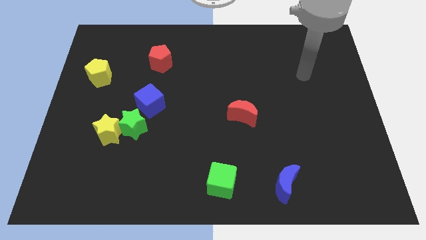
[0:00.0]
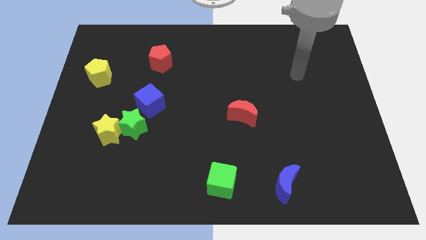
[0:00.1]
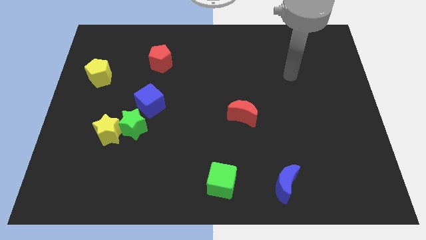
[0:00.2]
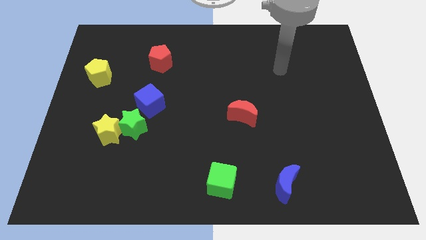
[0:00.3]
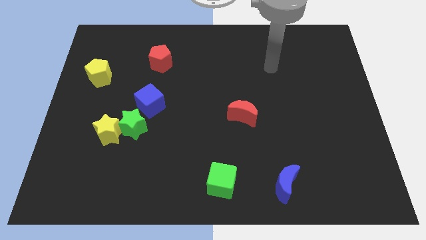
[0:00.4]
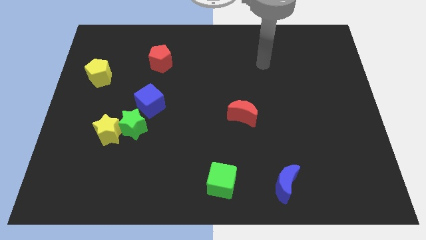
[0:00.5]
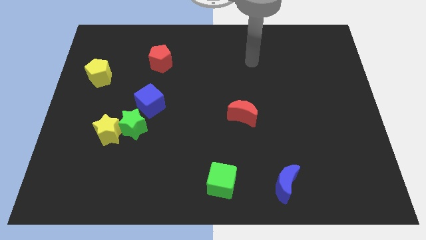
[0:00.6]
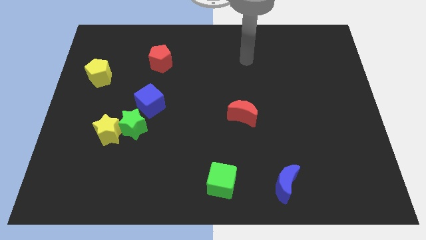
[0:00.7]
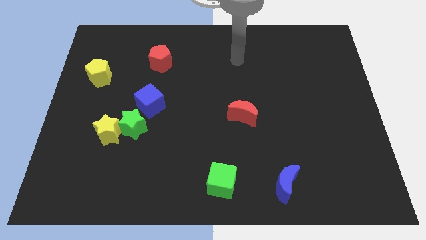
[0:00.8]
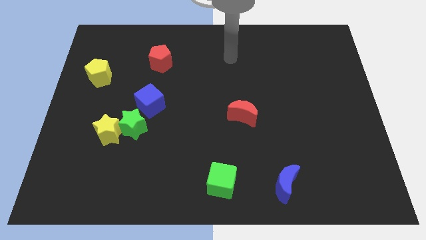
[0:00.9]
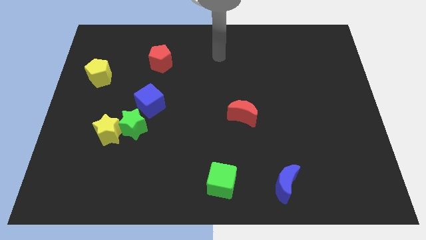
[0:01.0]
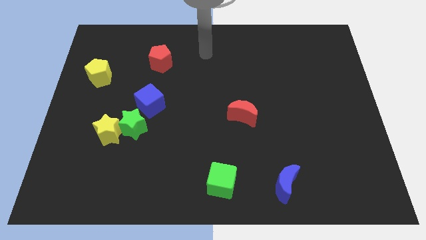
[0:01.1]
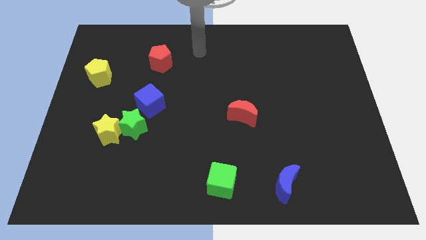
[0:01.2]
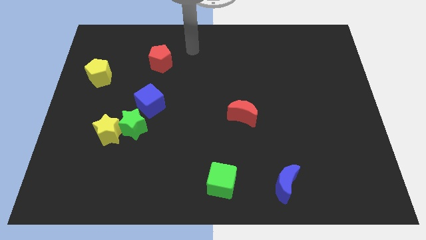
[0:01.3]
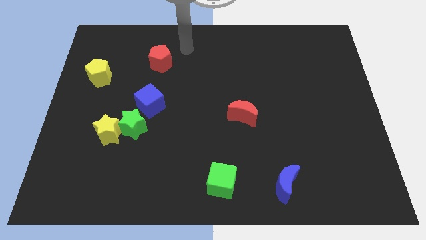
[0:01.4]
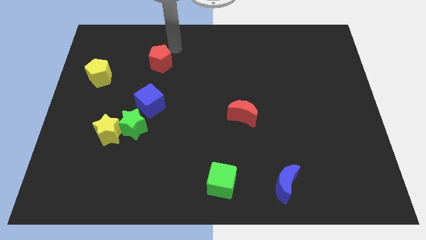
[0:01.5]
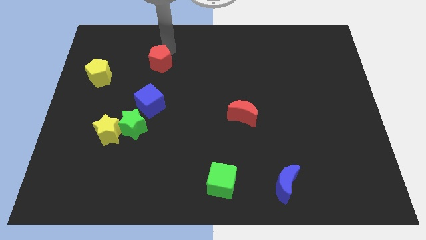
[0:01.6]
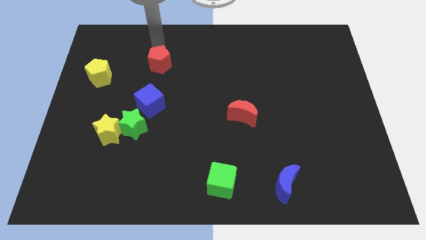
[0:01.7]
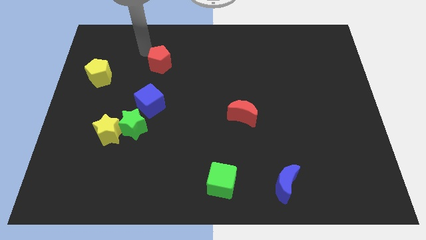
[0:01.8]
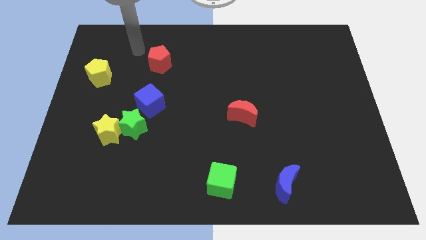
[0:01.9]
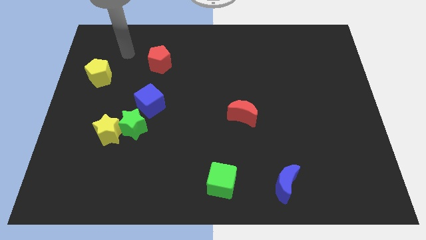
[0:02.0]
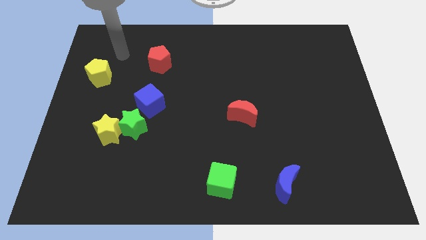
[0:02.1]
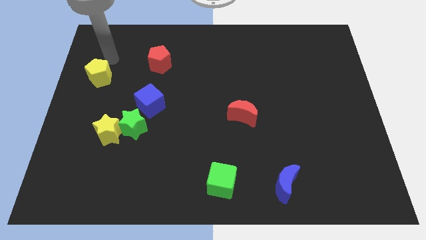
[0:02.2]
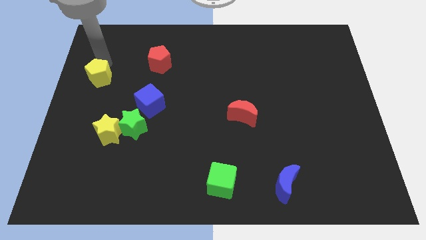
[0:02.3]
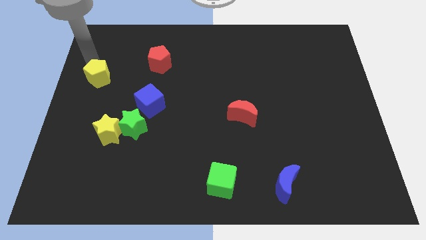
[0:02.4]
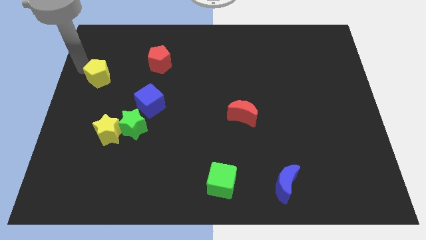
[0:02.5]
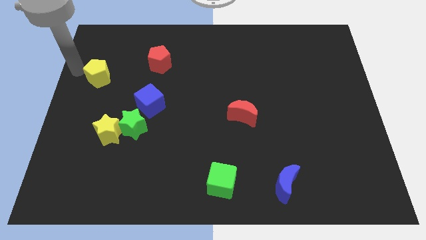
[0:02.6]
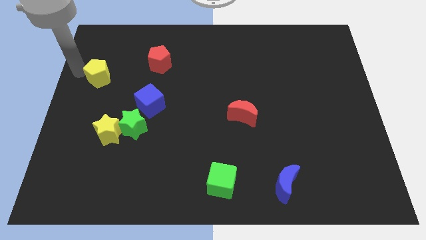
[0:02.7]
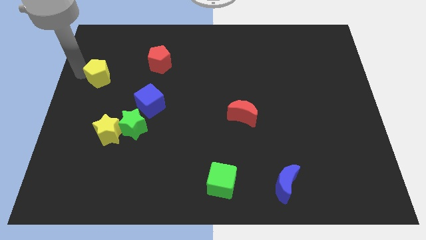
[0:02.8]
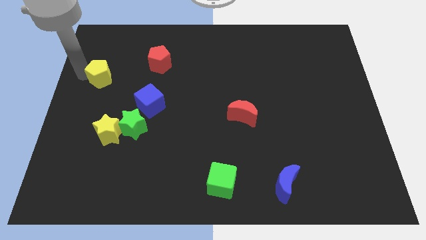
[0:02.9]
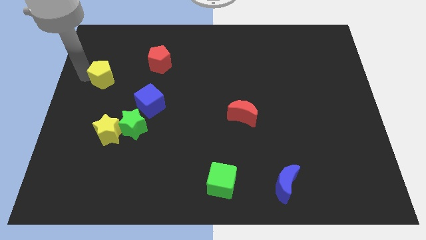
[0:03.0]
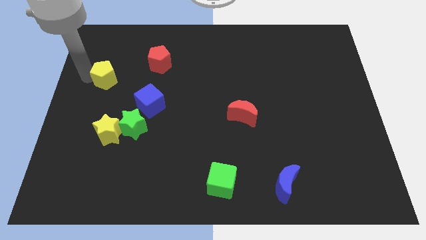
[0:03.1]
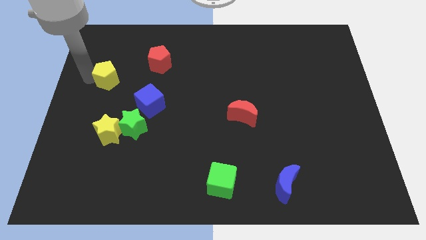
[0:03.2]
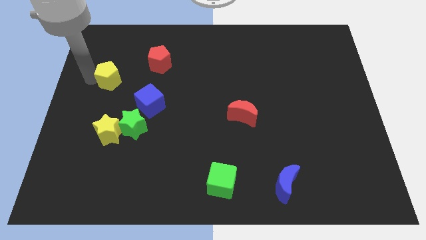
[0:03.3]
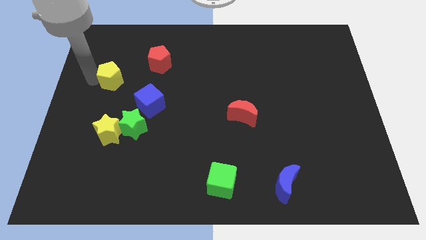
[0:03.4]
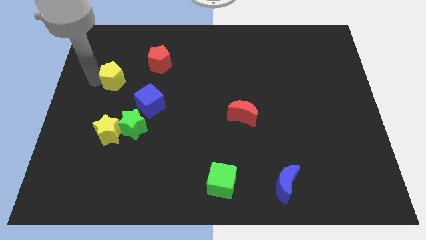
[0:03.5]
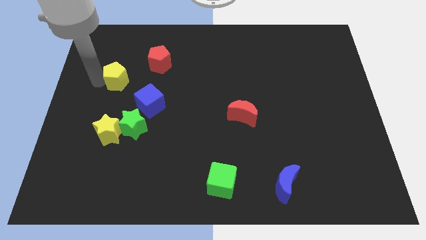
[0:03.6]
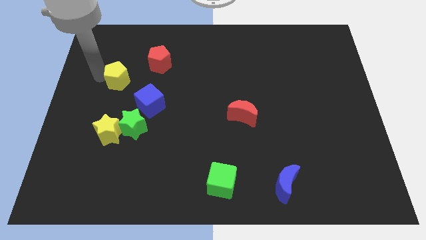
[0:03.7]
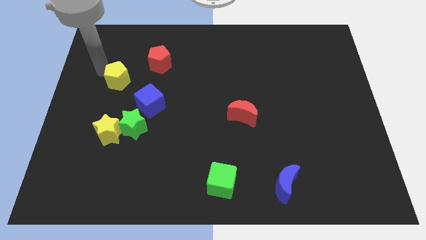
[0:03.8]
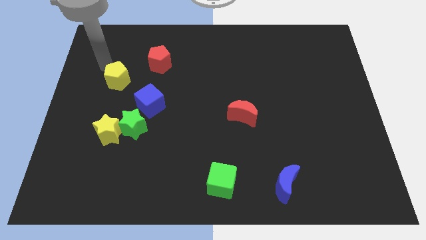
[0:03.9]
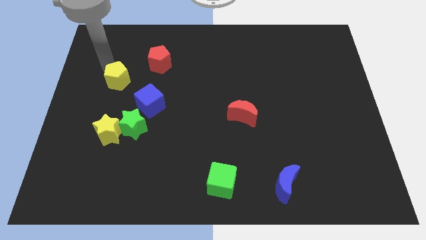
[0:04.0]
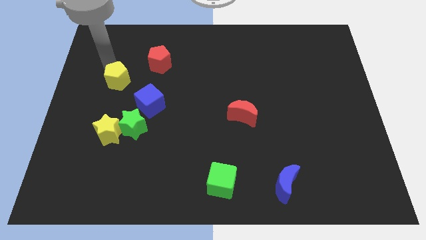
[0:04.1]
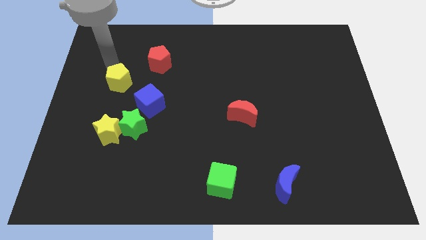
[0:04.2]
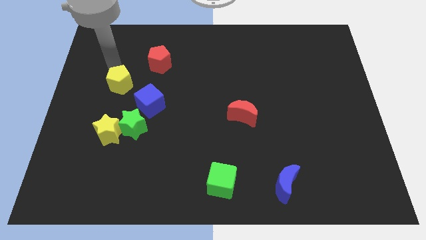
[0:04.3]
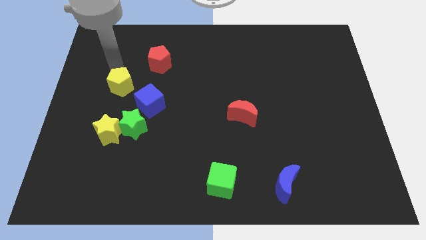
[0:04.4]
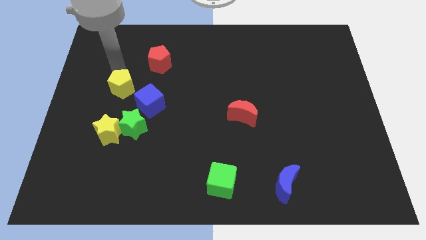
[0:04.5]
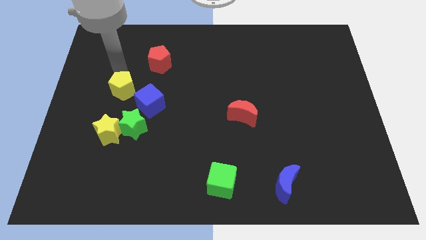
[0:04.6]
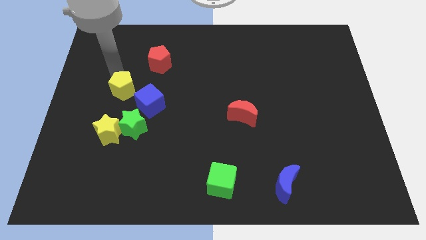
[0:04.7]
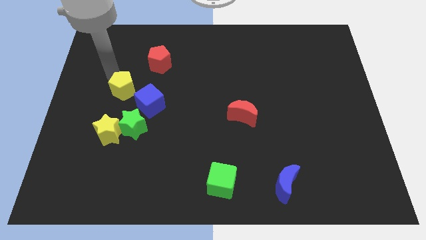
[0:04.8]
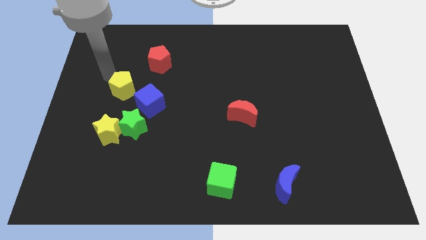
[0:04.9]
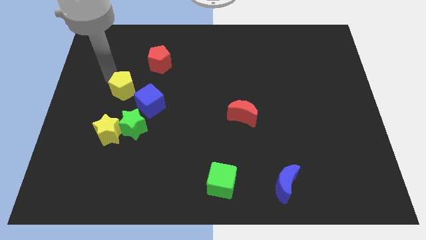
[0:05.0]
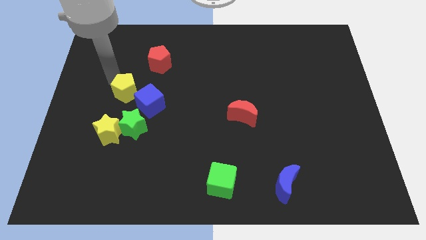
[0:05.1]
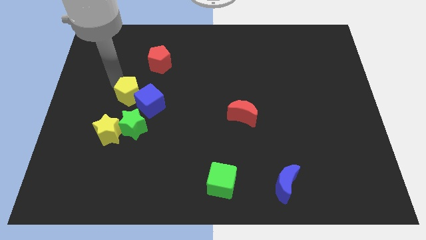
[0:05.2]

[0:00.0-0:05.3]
put the yellow pentagon towards the blue cube

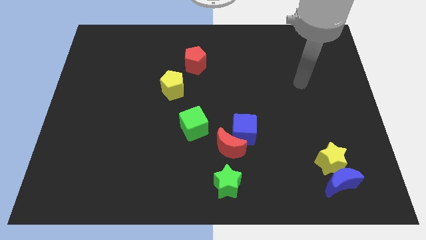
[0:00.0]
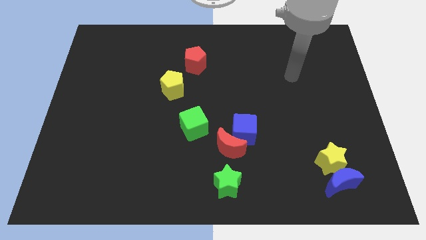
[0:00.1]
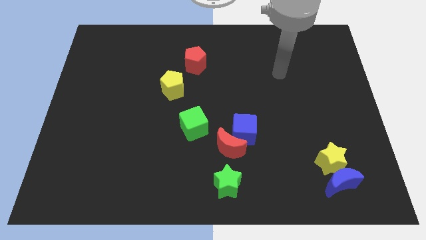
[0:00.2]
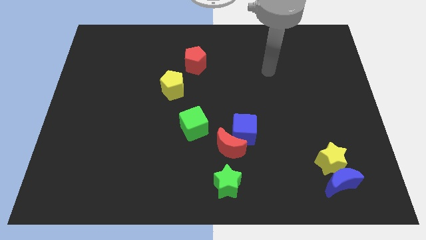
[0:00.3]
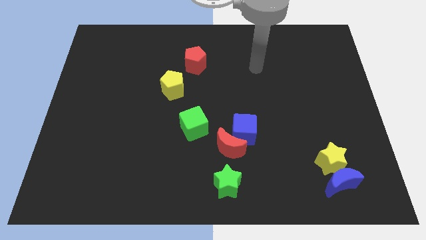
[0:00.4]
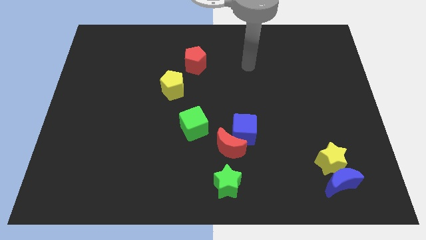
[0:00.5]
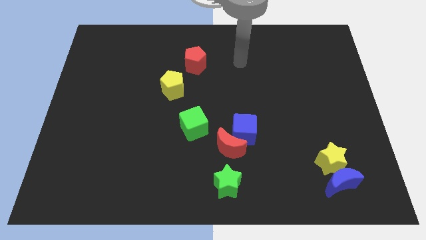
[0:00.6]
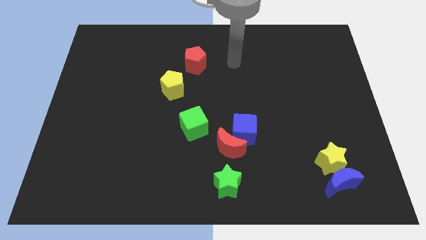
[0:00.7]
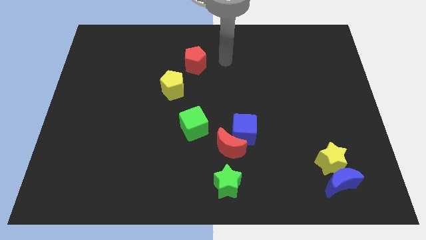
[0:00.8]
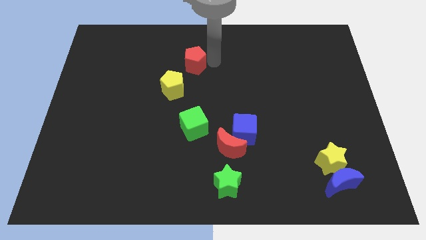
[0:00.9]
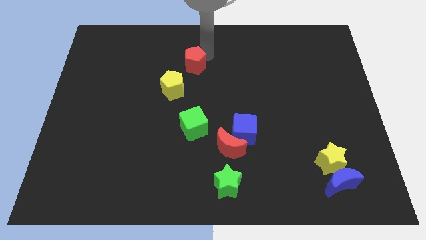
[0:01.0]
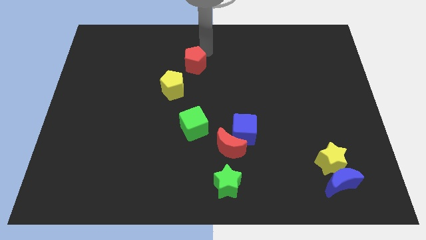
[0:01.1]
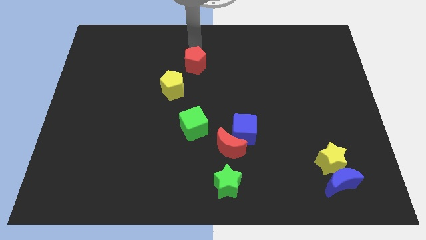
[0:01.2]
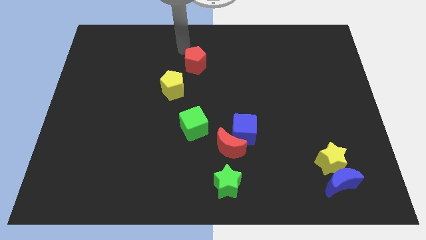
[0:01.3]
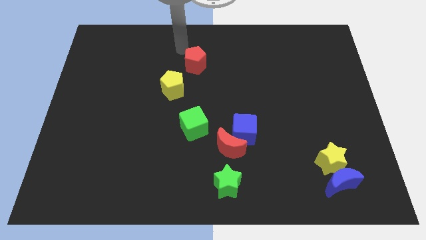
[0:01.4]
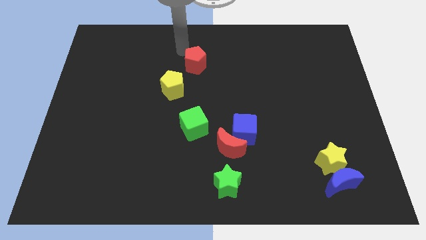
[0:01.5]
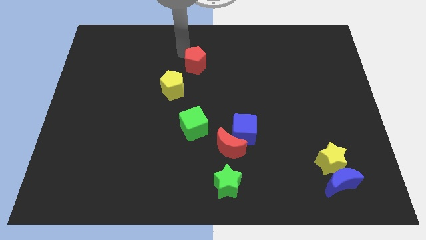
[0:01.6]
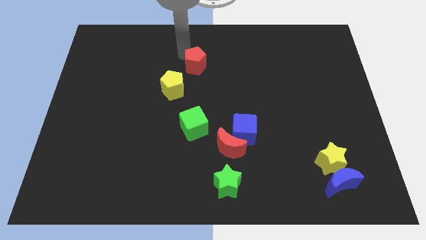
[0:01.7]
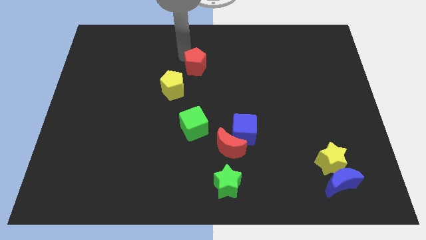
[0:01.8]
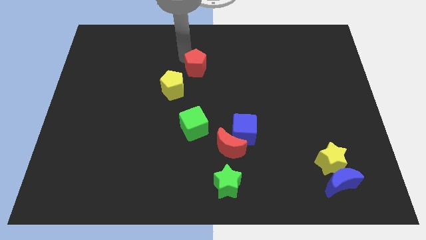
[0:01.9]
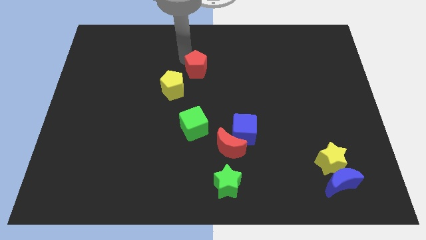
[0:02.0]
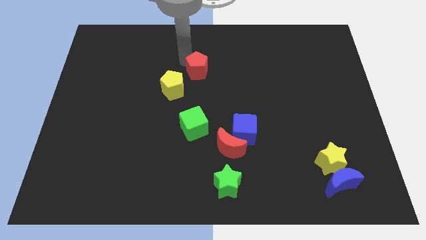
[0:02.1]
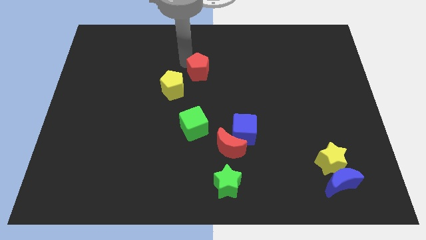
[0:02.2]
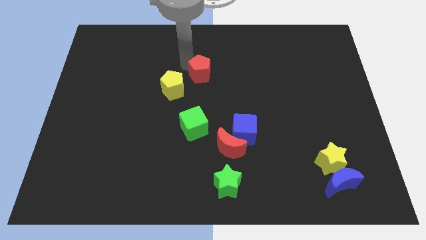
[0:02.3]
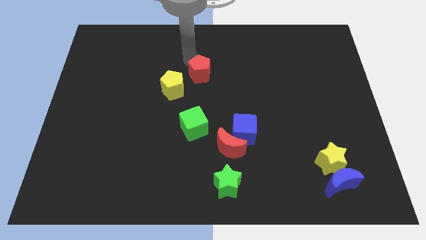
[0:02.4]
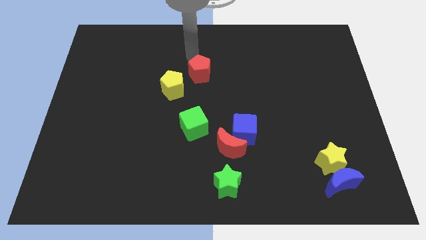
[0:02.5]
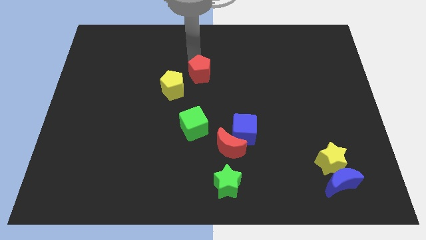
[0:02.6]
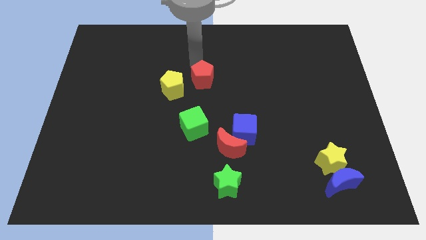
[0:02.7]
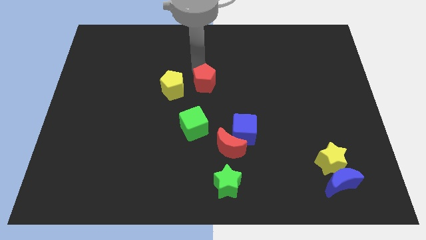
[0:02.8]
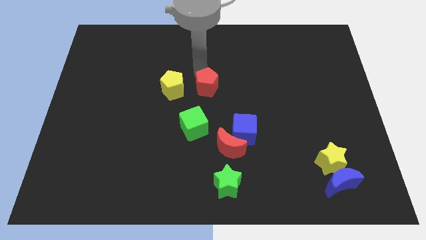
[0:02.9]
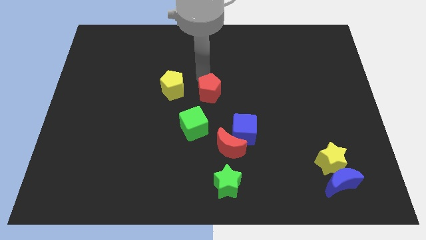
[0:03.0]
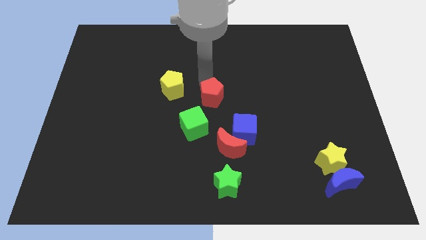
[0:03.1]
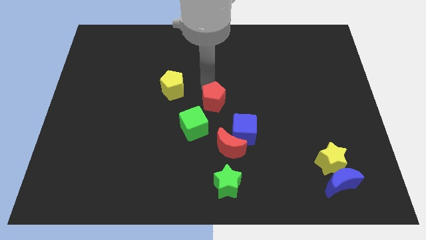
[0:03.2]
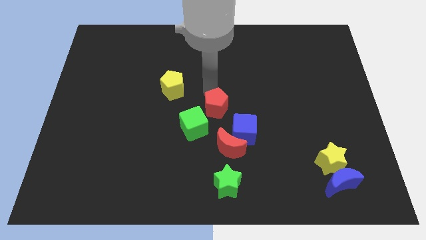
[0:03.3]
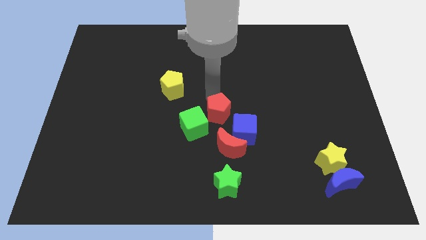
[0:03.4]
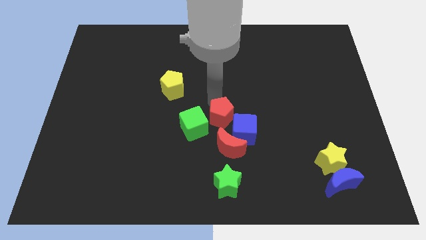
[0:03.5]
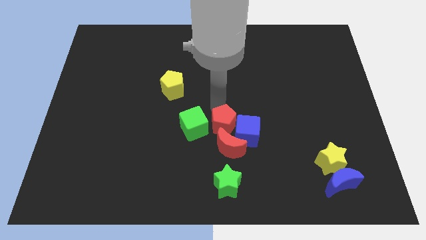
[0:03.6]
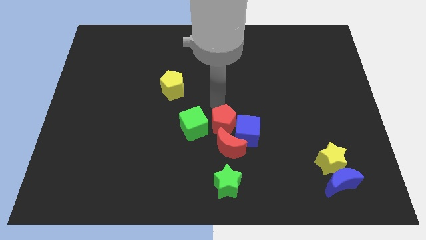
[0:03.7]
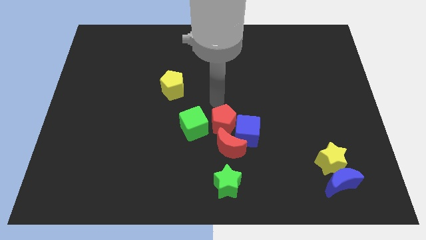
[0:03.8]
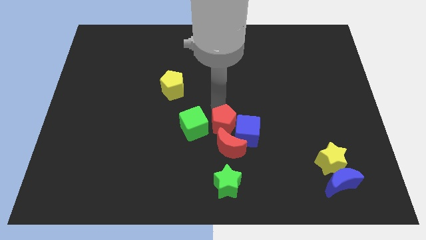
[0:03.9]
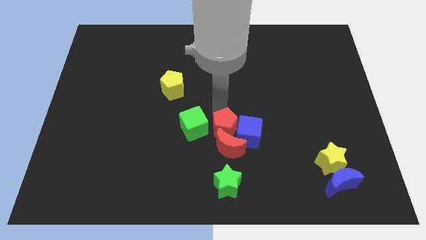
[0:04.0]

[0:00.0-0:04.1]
push the red pentagon next to the red moon
